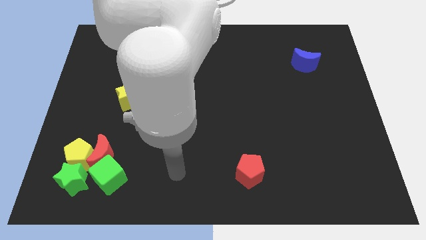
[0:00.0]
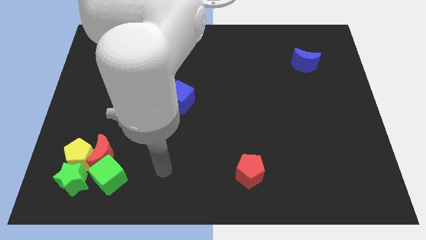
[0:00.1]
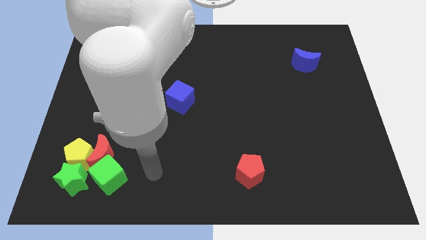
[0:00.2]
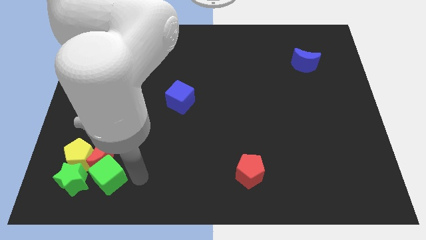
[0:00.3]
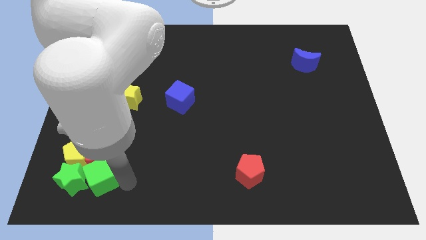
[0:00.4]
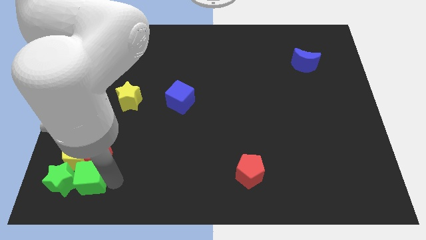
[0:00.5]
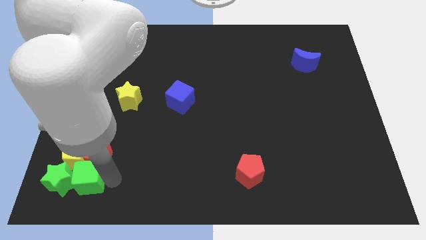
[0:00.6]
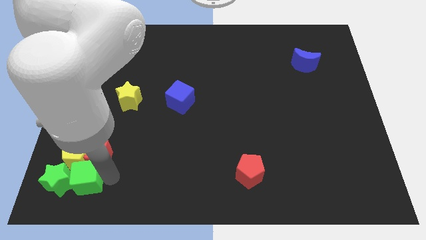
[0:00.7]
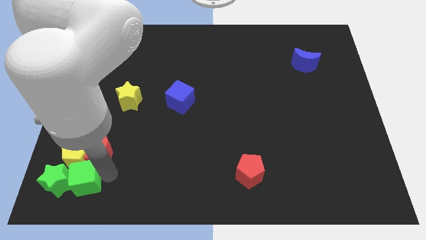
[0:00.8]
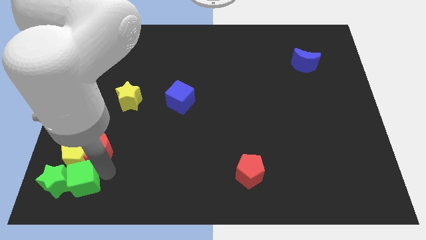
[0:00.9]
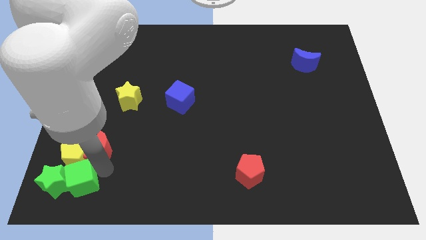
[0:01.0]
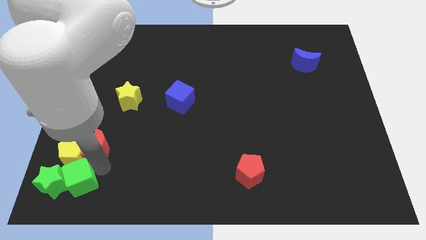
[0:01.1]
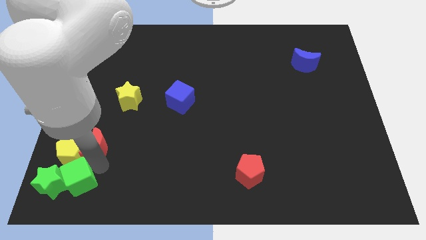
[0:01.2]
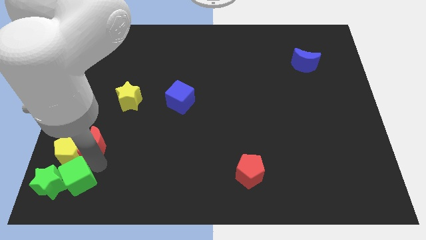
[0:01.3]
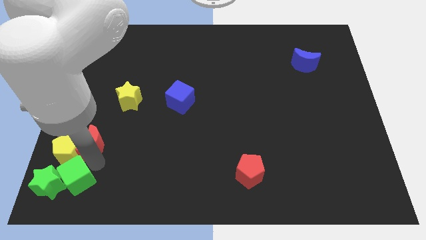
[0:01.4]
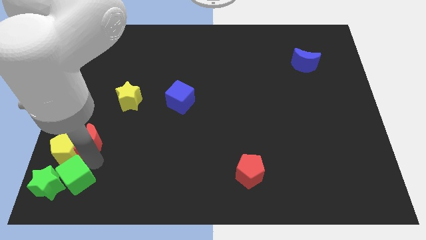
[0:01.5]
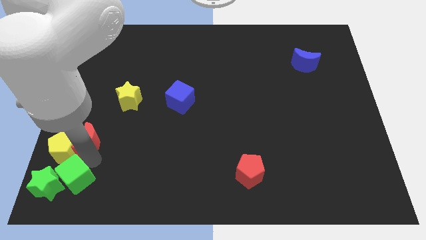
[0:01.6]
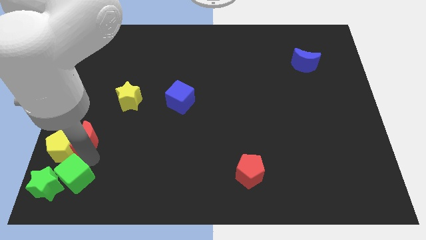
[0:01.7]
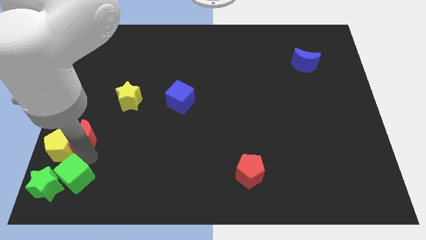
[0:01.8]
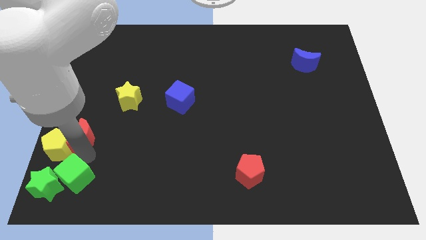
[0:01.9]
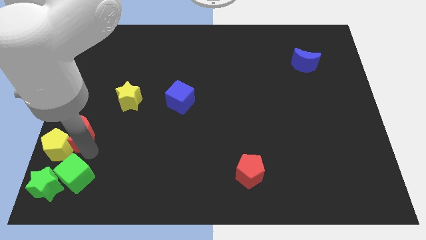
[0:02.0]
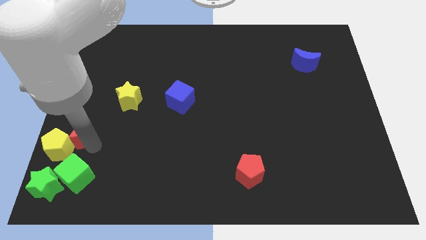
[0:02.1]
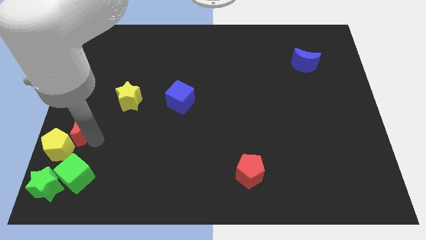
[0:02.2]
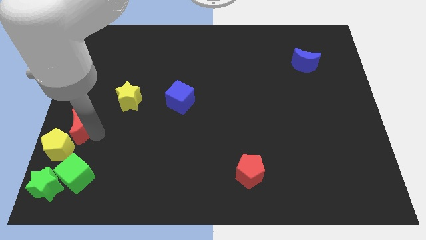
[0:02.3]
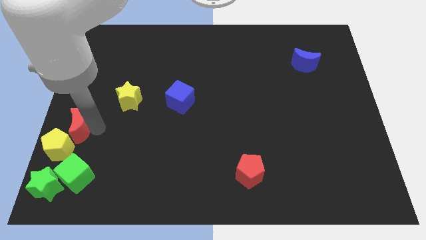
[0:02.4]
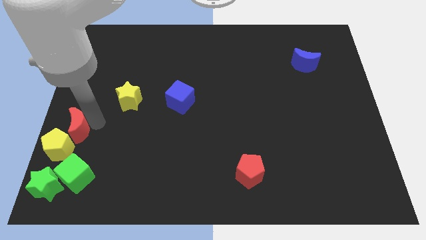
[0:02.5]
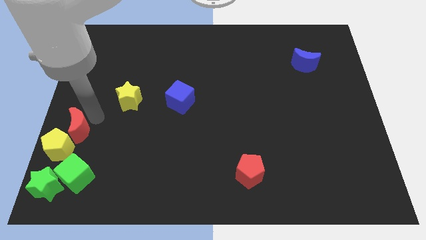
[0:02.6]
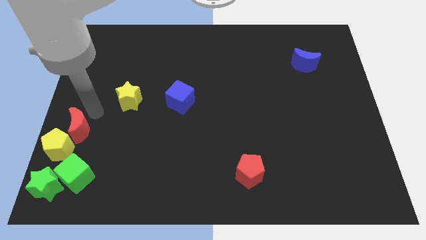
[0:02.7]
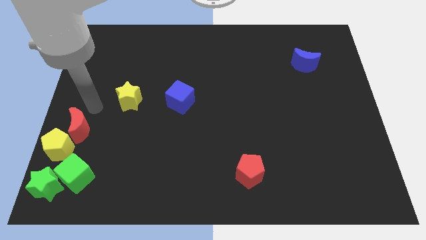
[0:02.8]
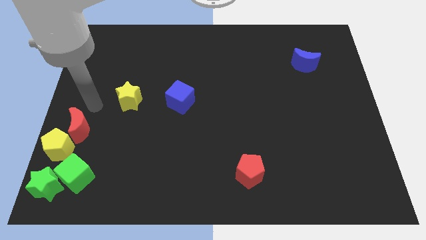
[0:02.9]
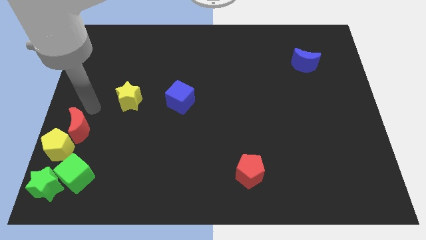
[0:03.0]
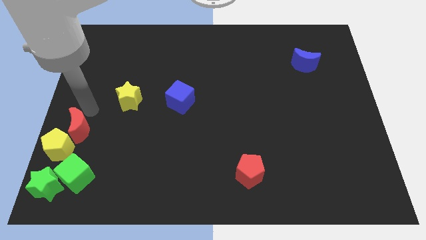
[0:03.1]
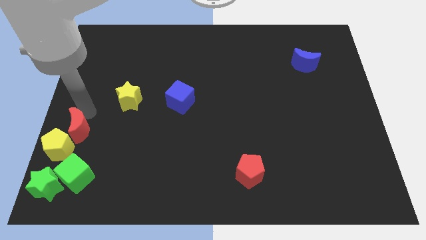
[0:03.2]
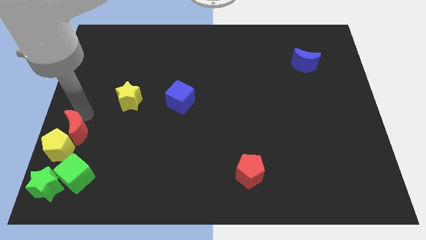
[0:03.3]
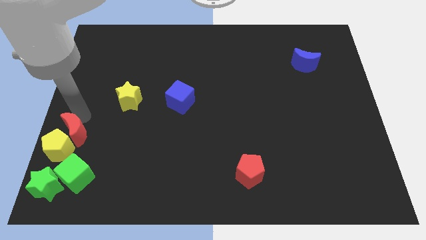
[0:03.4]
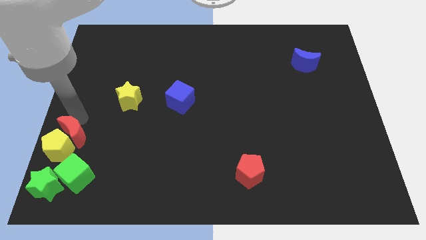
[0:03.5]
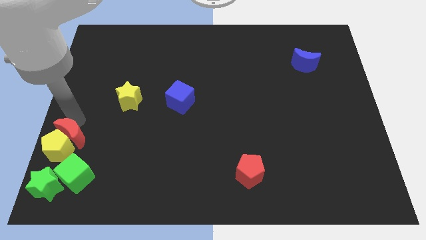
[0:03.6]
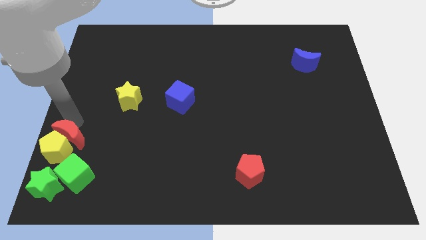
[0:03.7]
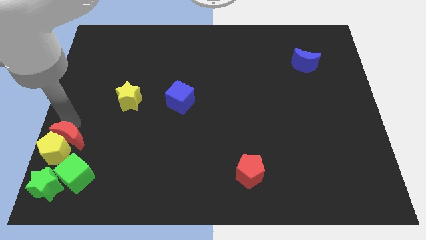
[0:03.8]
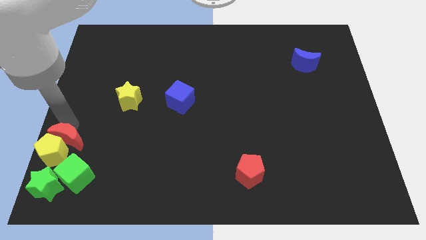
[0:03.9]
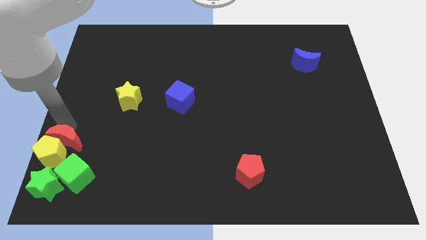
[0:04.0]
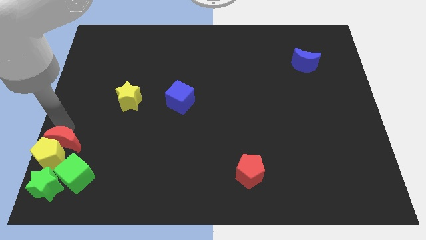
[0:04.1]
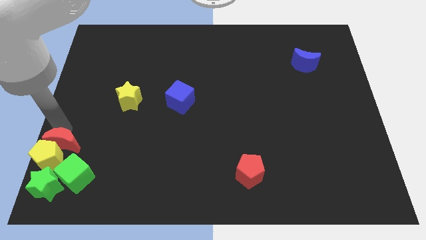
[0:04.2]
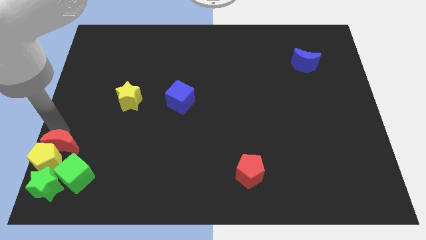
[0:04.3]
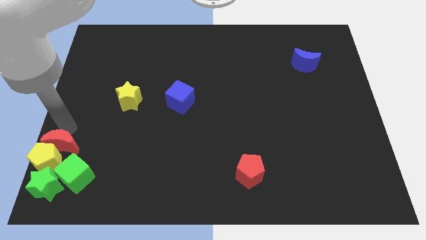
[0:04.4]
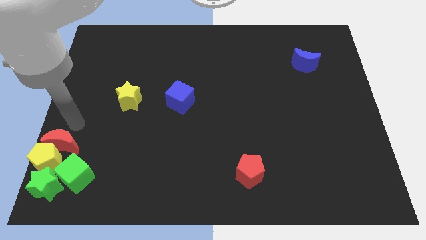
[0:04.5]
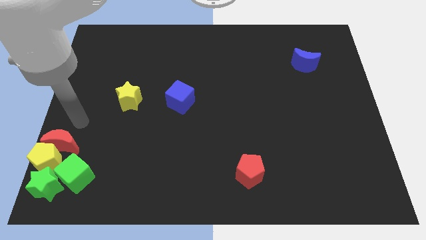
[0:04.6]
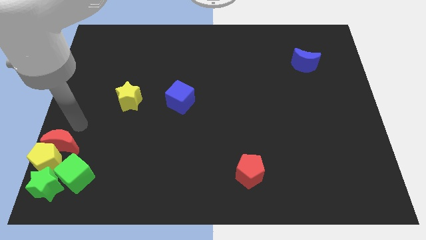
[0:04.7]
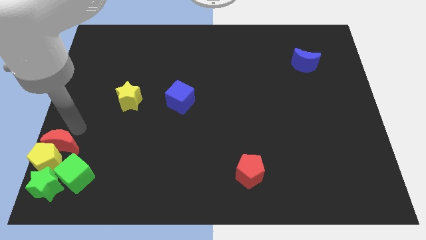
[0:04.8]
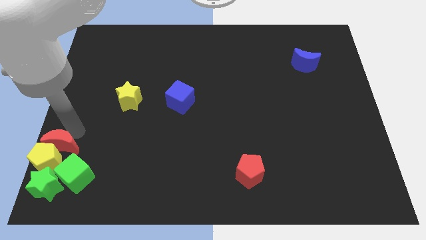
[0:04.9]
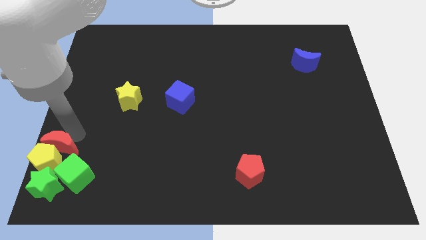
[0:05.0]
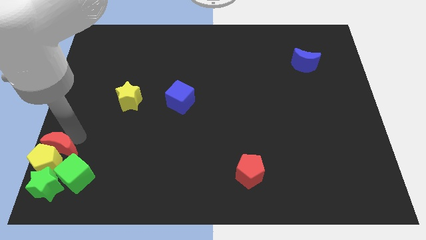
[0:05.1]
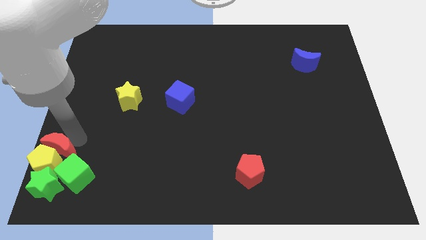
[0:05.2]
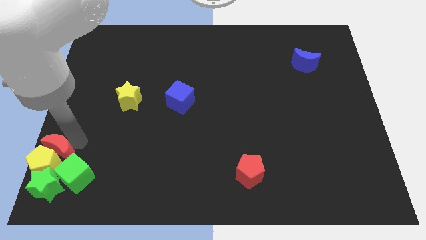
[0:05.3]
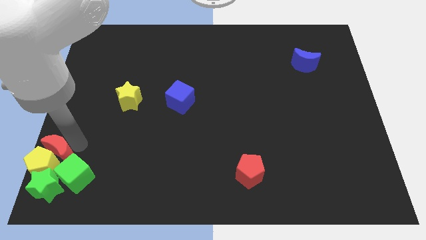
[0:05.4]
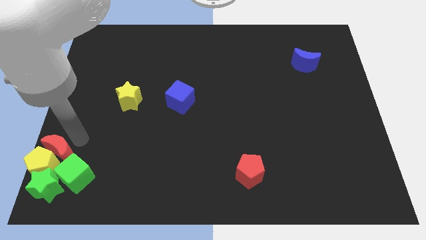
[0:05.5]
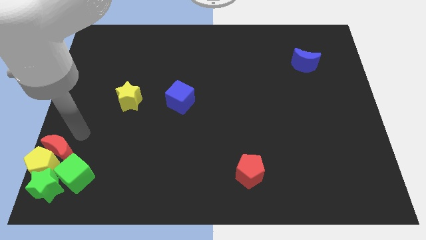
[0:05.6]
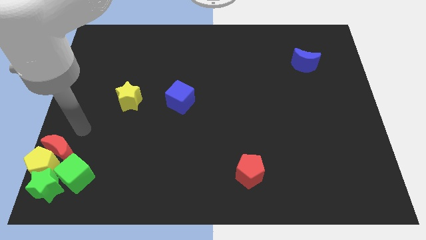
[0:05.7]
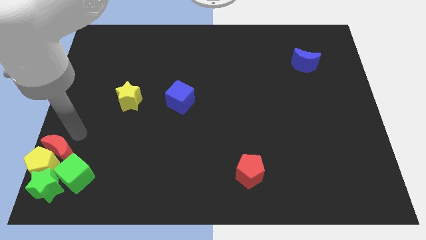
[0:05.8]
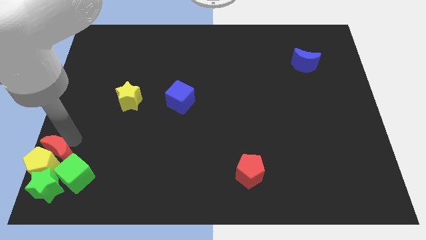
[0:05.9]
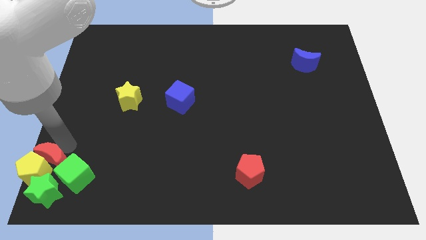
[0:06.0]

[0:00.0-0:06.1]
slide the red moon to the lower left corner
